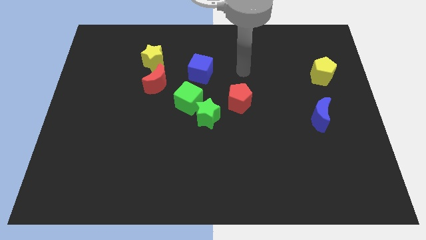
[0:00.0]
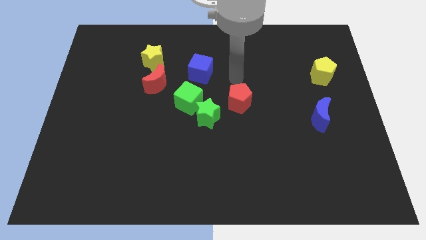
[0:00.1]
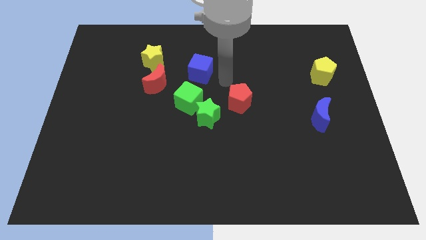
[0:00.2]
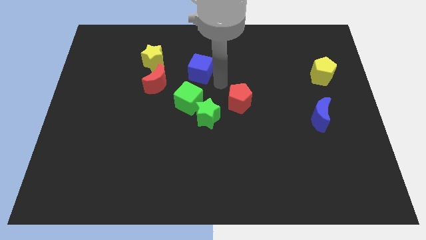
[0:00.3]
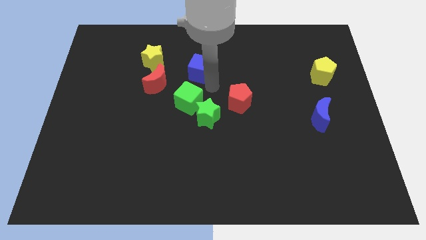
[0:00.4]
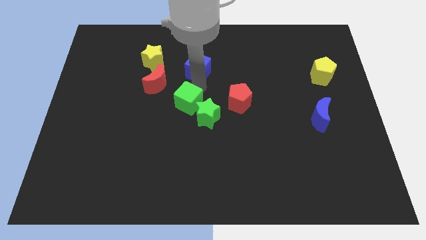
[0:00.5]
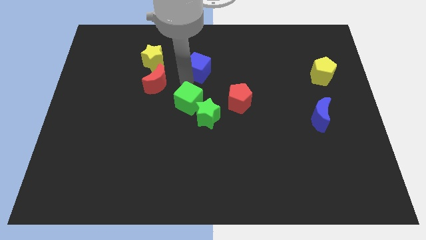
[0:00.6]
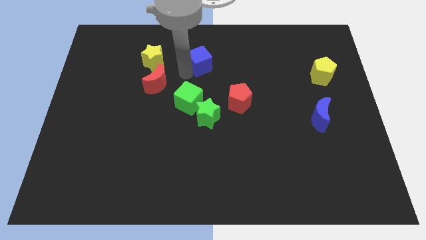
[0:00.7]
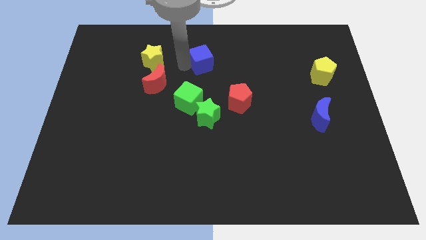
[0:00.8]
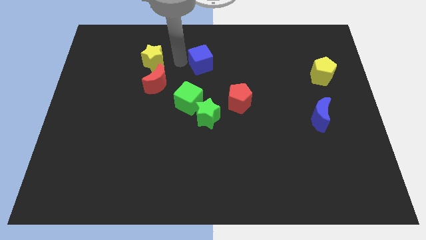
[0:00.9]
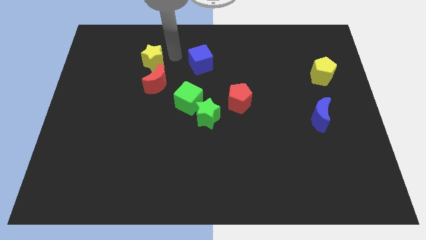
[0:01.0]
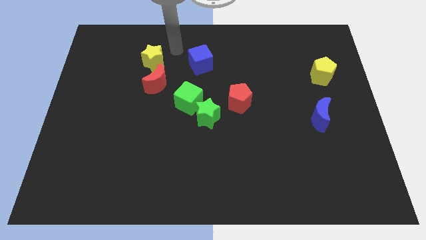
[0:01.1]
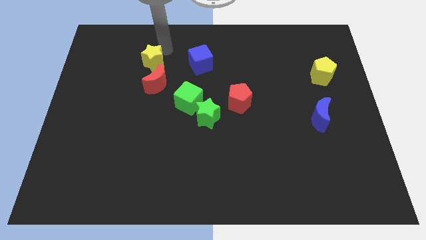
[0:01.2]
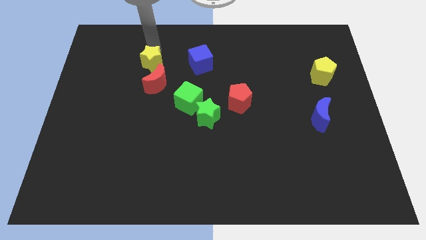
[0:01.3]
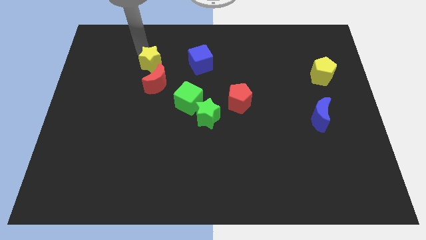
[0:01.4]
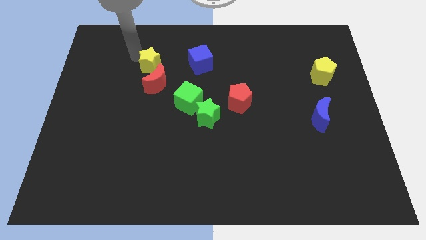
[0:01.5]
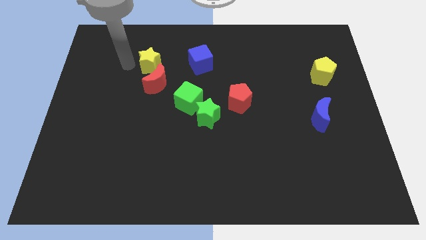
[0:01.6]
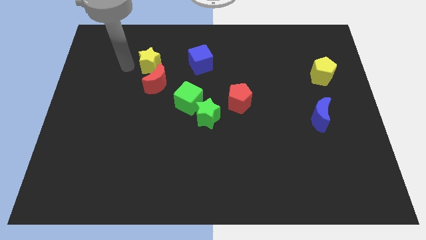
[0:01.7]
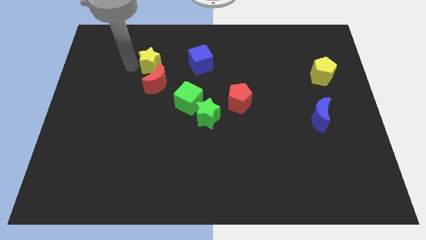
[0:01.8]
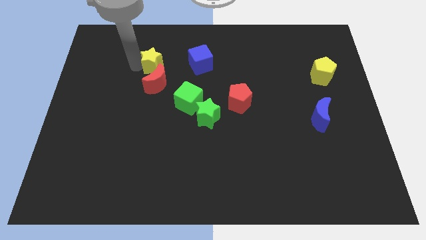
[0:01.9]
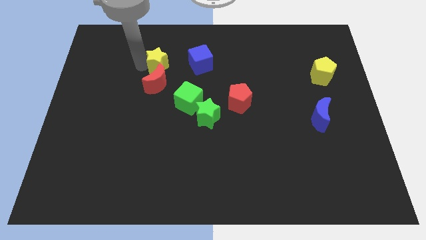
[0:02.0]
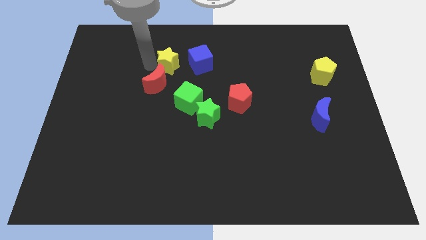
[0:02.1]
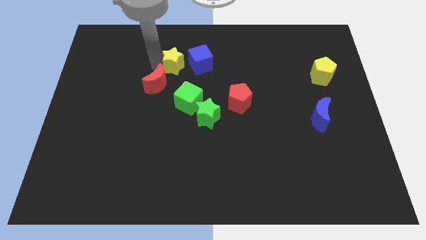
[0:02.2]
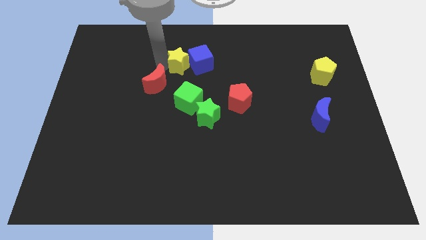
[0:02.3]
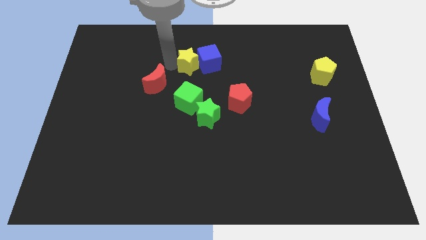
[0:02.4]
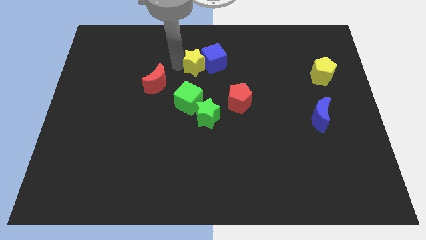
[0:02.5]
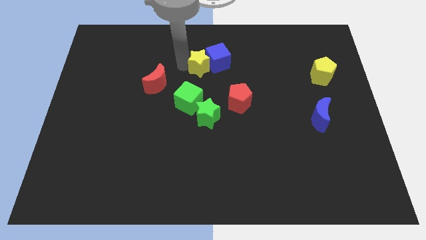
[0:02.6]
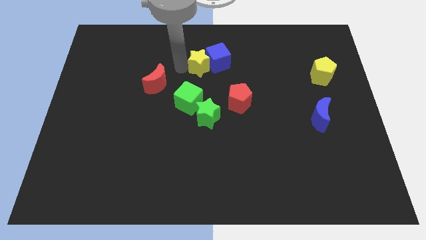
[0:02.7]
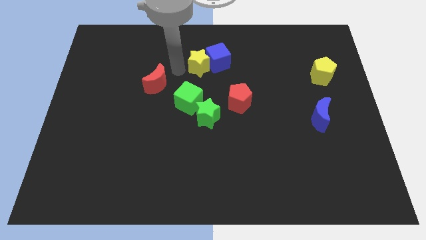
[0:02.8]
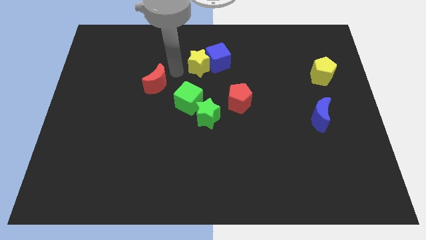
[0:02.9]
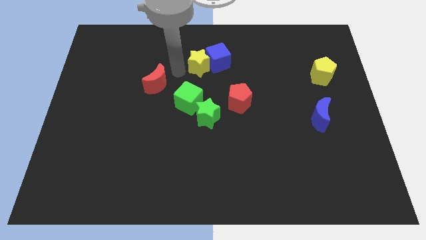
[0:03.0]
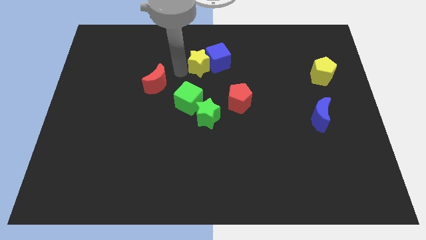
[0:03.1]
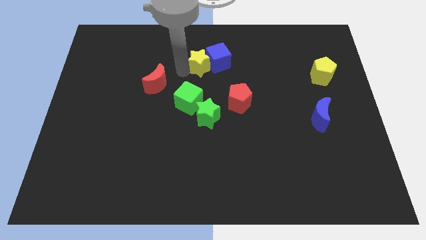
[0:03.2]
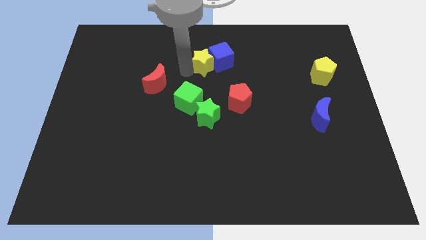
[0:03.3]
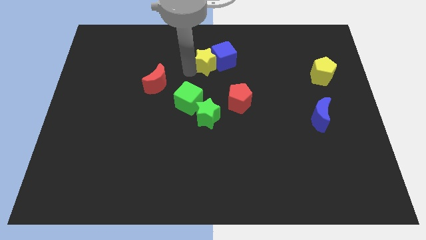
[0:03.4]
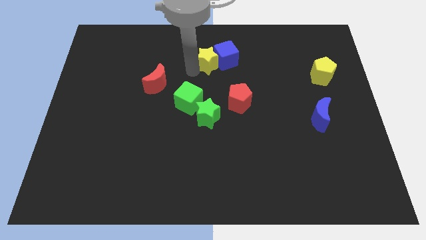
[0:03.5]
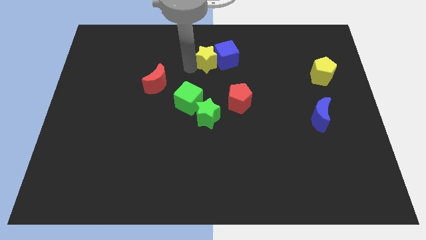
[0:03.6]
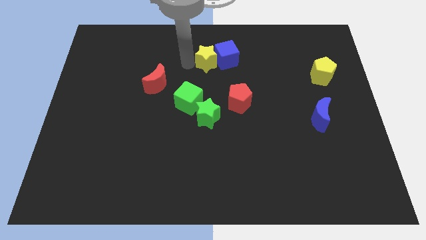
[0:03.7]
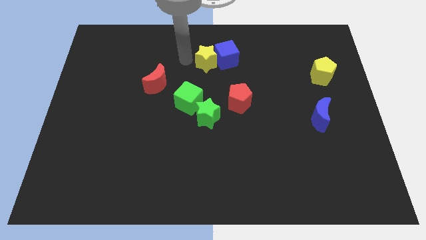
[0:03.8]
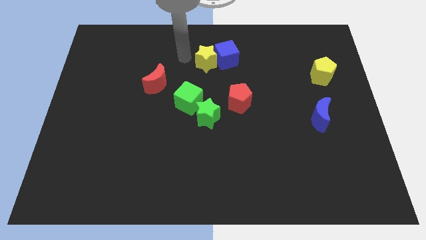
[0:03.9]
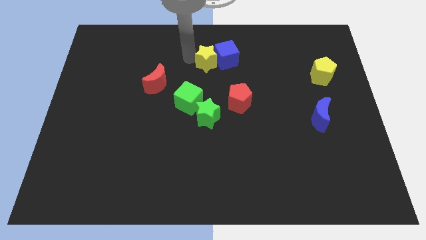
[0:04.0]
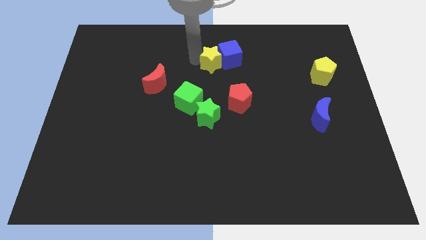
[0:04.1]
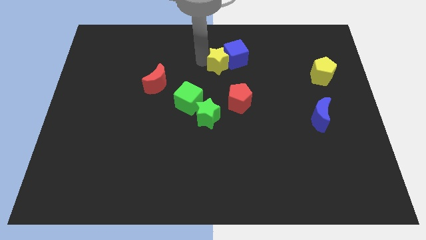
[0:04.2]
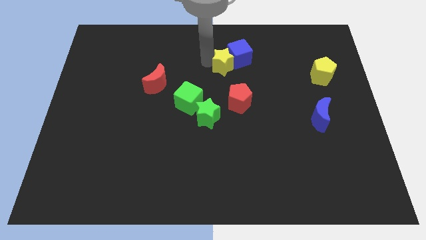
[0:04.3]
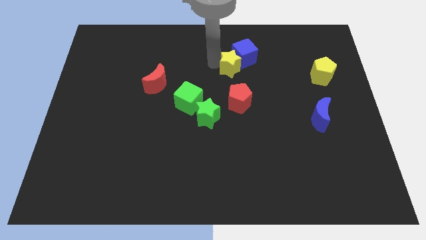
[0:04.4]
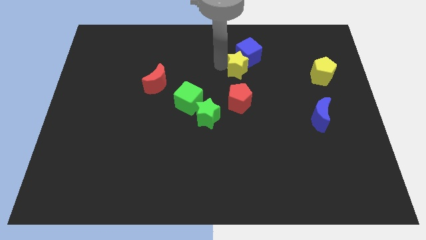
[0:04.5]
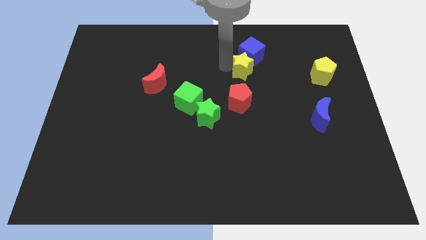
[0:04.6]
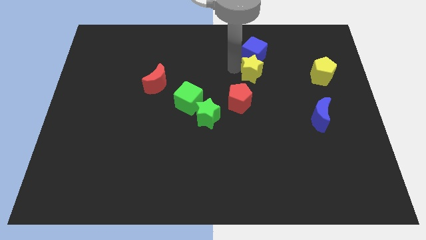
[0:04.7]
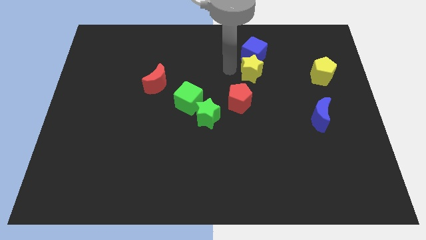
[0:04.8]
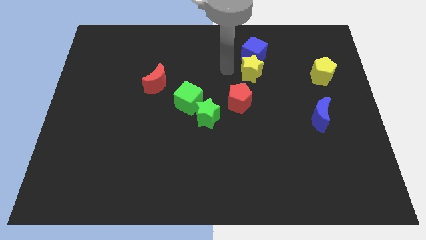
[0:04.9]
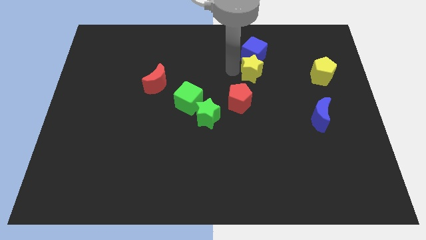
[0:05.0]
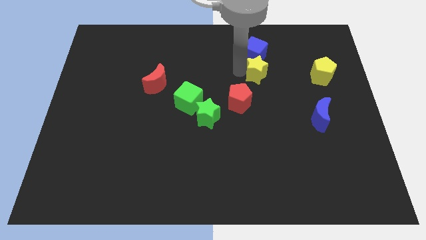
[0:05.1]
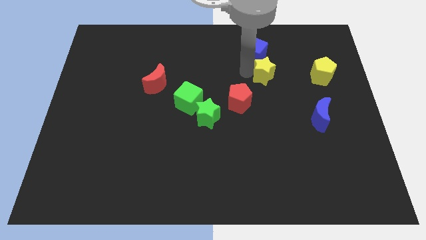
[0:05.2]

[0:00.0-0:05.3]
move the yellow star to the left of the yellow pentagon

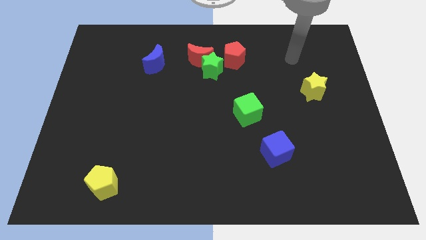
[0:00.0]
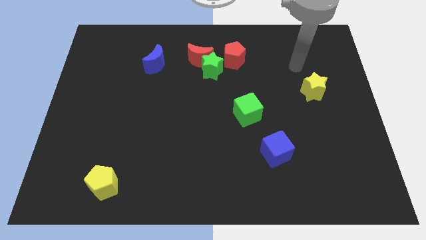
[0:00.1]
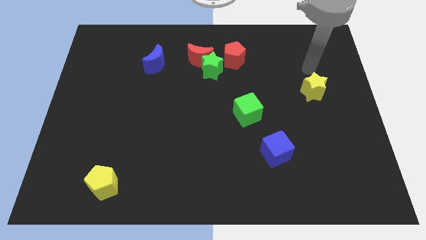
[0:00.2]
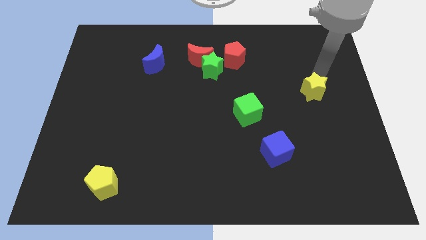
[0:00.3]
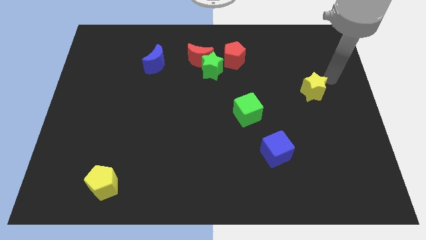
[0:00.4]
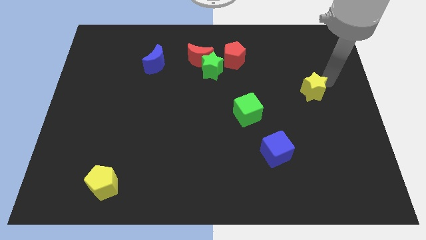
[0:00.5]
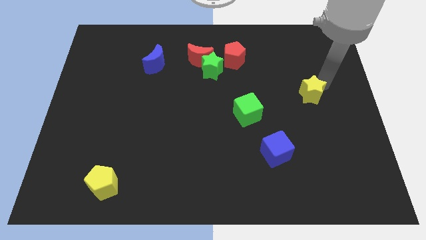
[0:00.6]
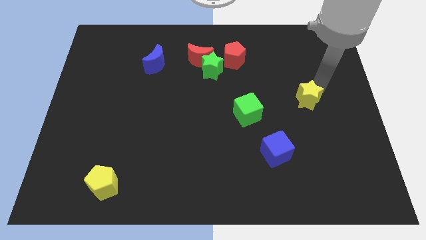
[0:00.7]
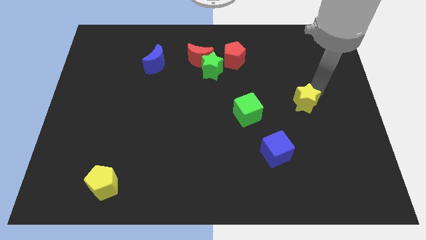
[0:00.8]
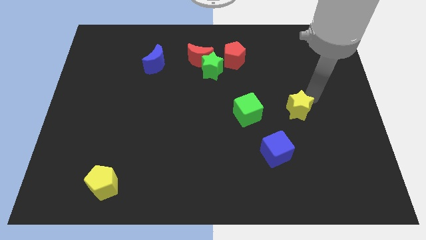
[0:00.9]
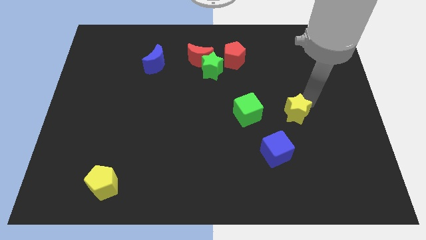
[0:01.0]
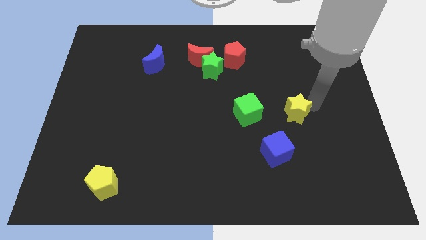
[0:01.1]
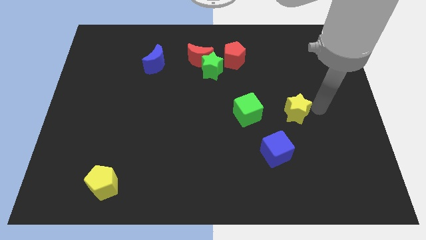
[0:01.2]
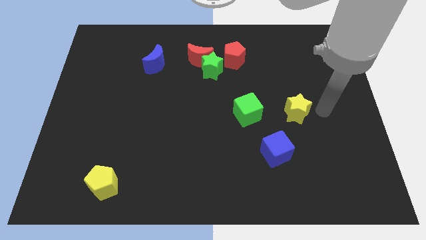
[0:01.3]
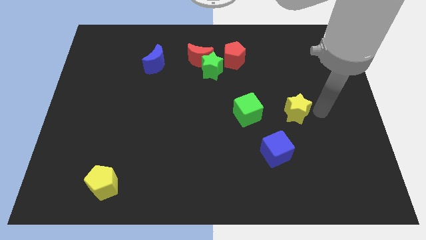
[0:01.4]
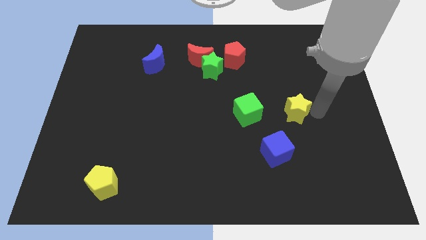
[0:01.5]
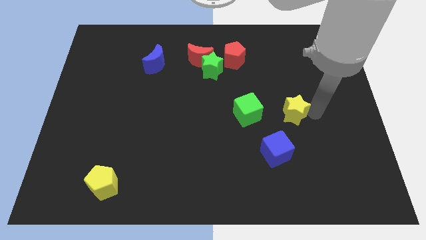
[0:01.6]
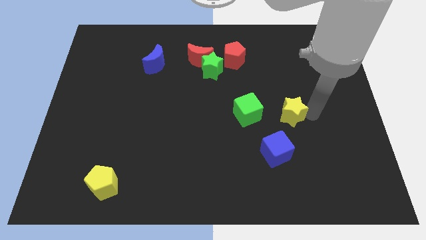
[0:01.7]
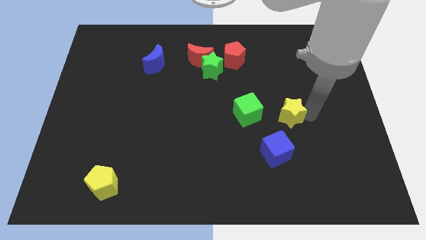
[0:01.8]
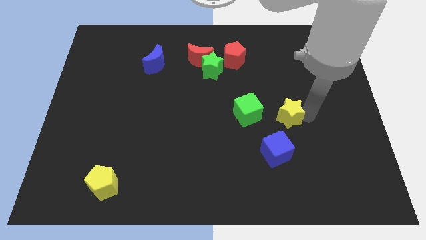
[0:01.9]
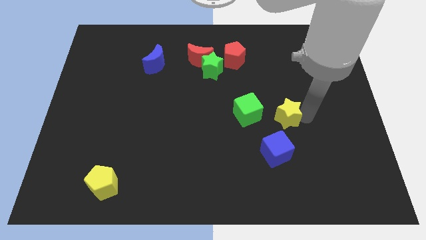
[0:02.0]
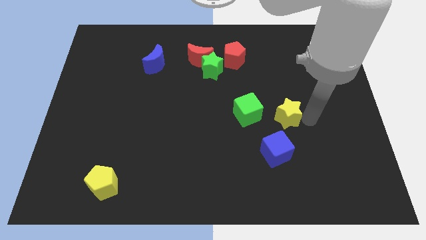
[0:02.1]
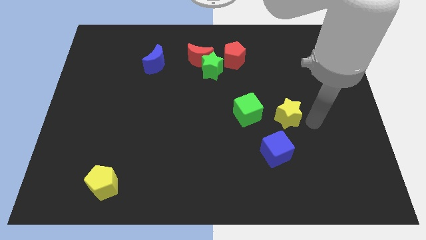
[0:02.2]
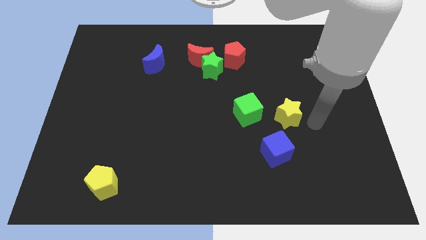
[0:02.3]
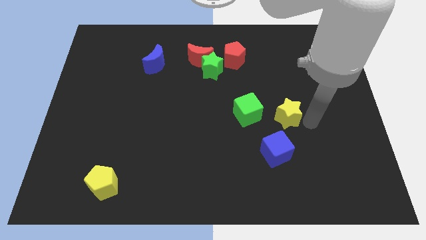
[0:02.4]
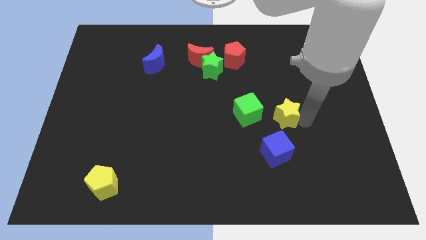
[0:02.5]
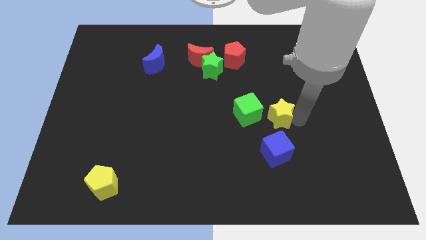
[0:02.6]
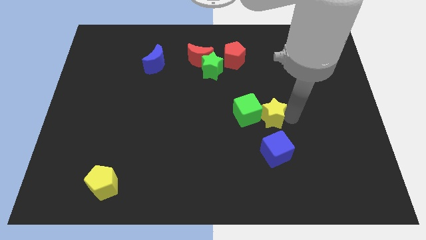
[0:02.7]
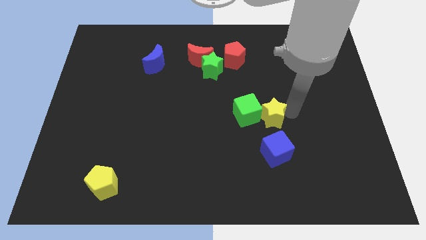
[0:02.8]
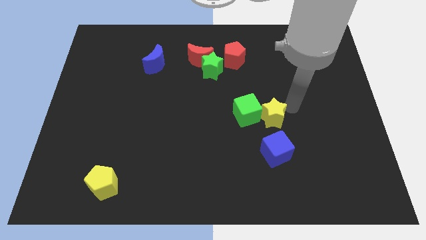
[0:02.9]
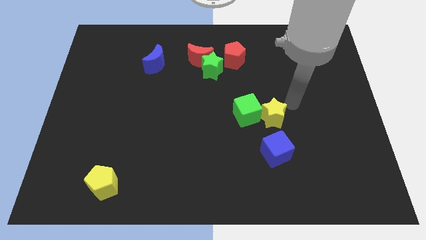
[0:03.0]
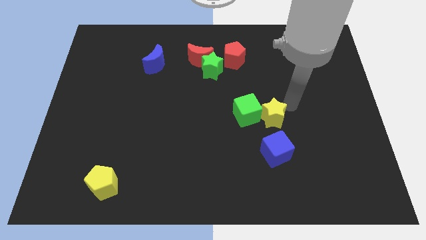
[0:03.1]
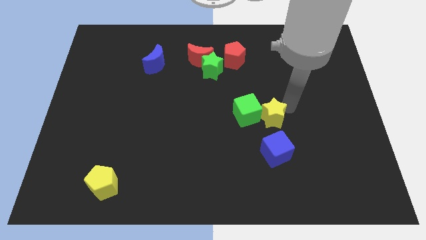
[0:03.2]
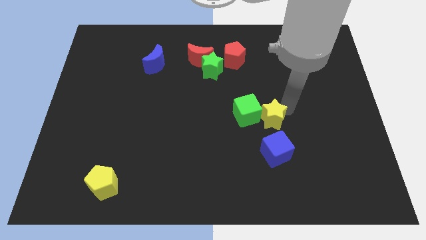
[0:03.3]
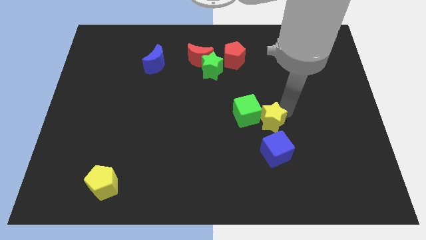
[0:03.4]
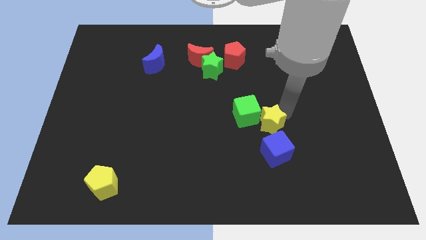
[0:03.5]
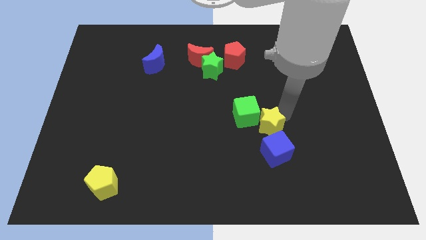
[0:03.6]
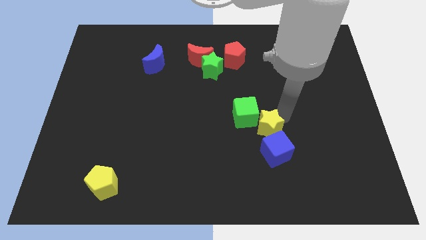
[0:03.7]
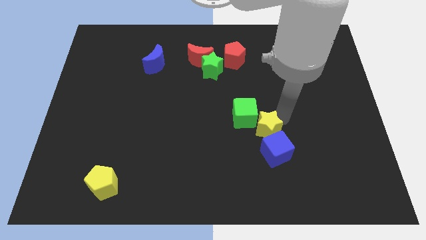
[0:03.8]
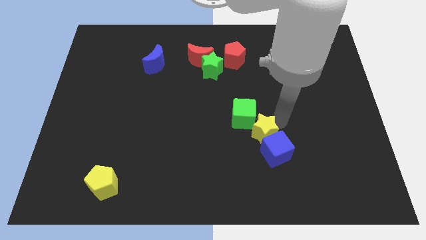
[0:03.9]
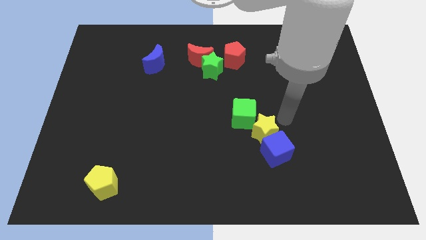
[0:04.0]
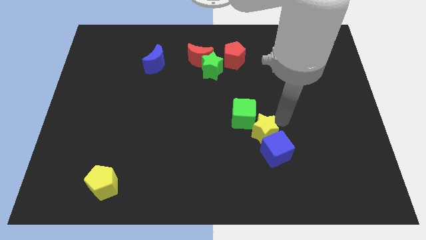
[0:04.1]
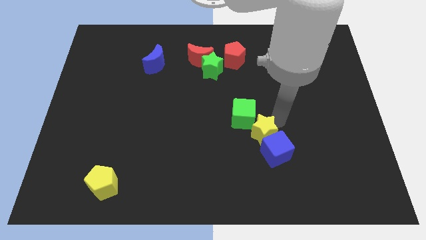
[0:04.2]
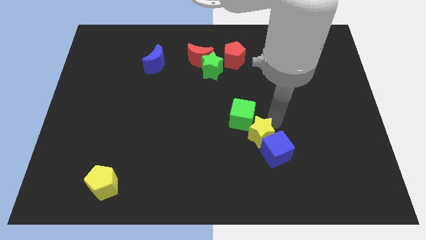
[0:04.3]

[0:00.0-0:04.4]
slide the yellow star just left of the blue cube
